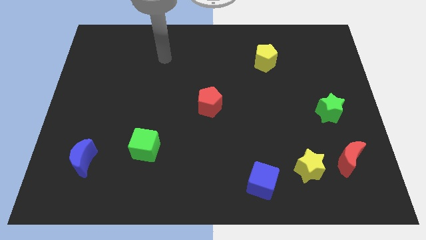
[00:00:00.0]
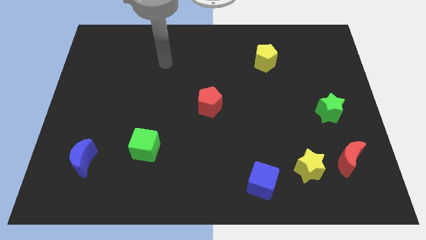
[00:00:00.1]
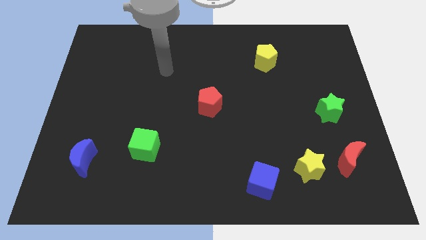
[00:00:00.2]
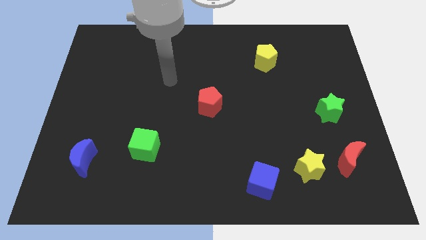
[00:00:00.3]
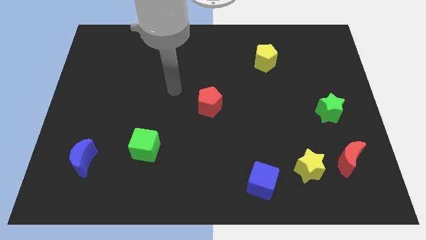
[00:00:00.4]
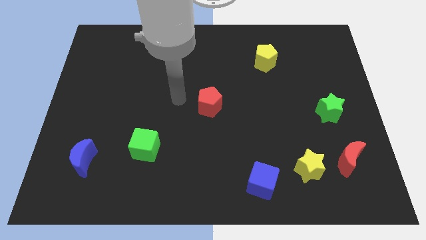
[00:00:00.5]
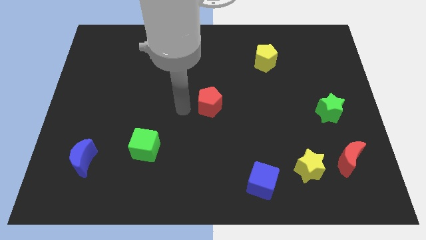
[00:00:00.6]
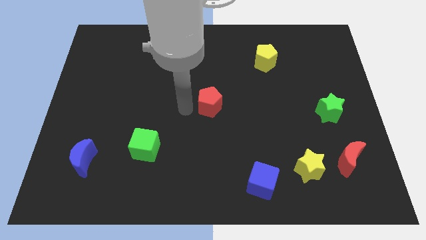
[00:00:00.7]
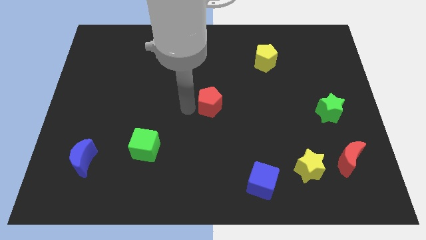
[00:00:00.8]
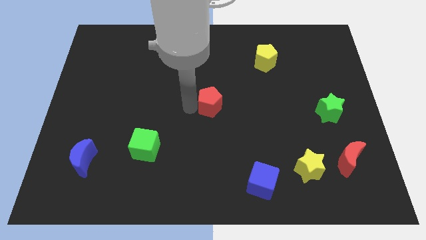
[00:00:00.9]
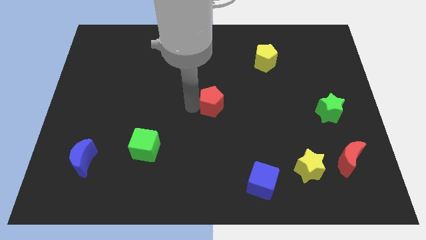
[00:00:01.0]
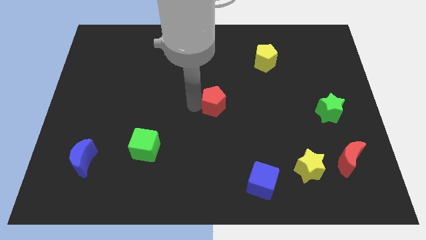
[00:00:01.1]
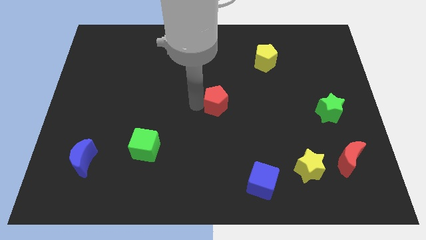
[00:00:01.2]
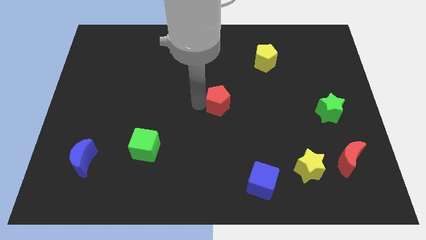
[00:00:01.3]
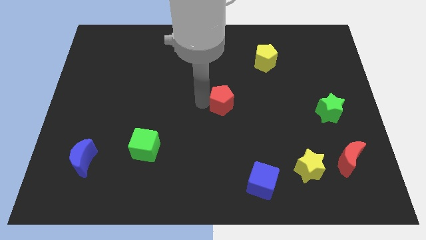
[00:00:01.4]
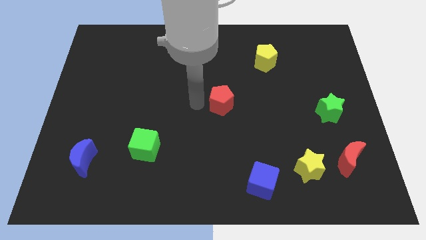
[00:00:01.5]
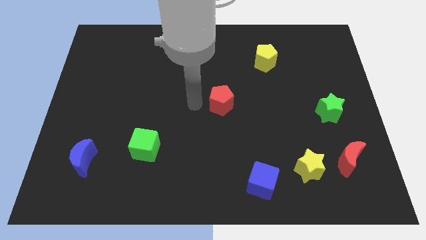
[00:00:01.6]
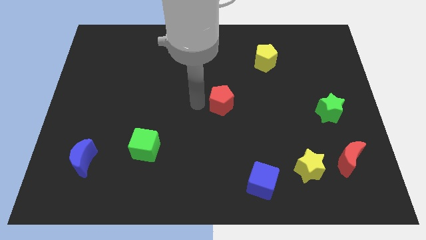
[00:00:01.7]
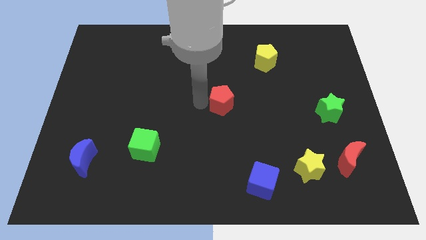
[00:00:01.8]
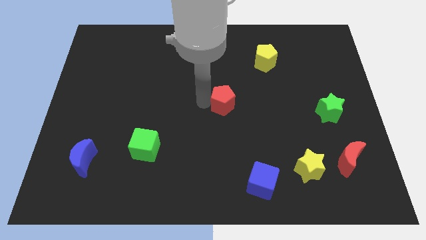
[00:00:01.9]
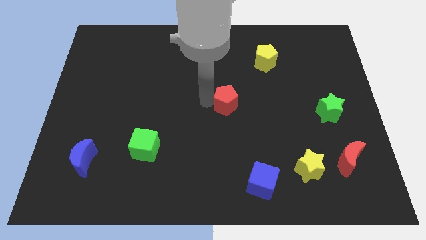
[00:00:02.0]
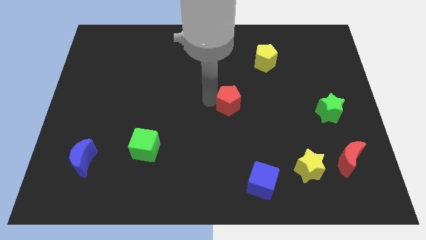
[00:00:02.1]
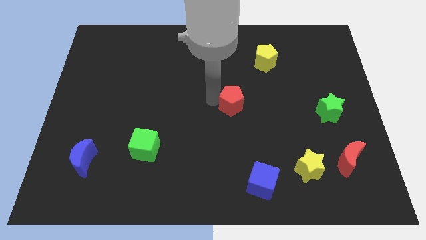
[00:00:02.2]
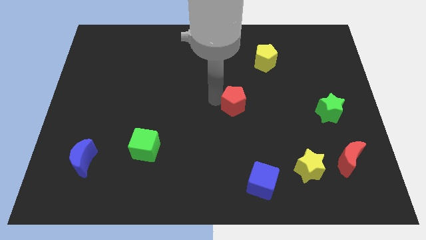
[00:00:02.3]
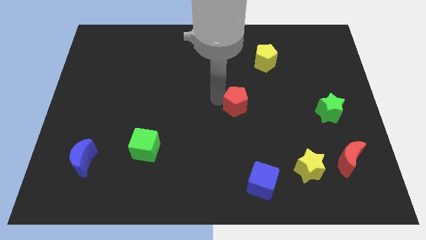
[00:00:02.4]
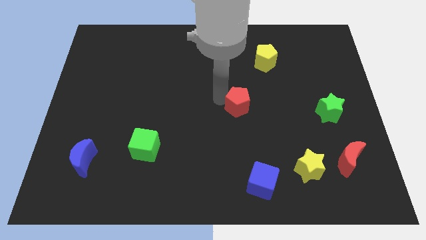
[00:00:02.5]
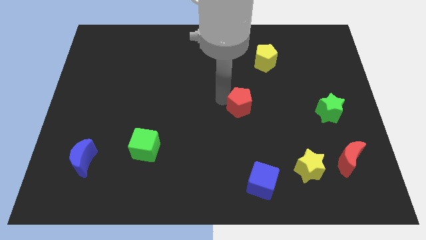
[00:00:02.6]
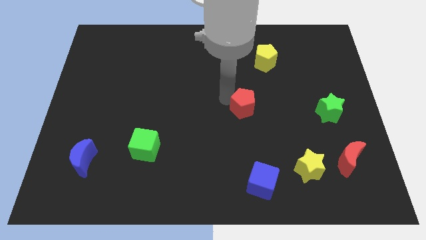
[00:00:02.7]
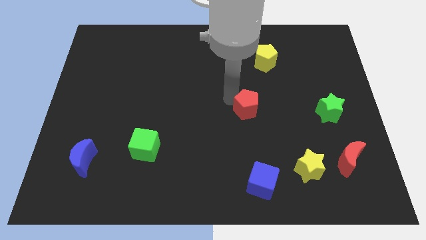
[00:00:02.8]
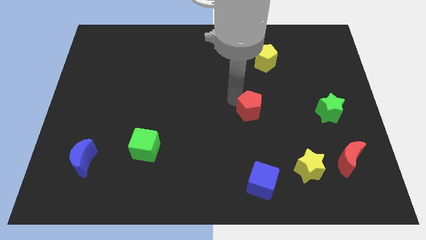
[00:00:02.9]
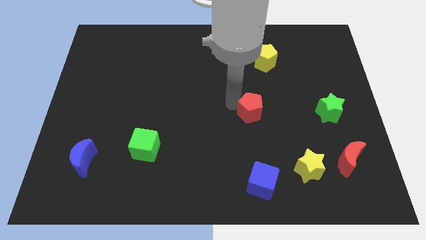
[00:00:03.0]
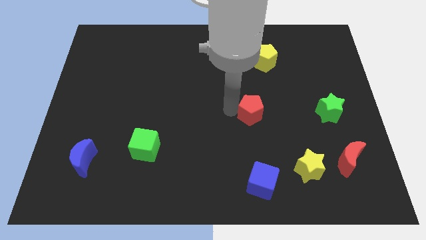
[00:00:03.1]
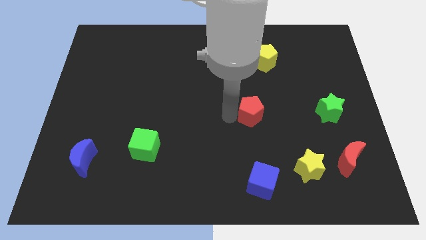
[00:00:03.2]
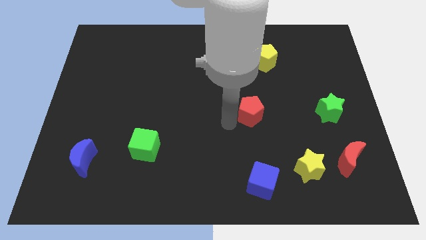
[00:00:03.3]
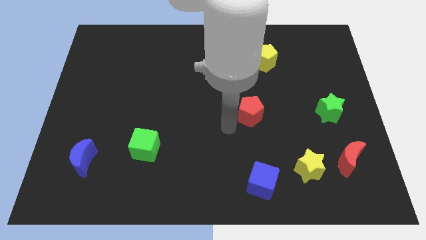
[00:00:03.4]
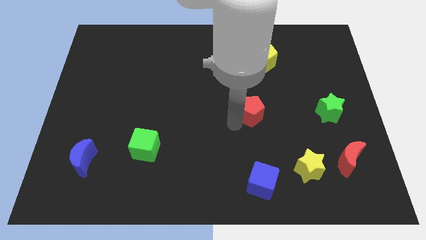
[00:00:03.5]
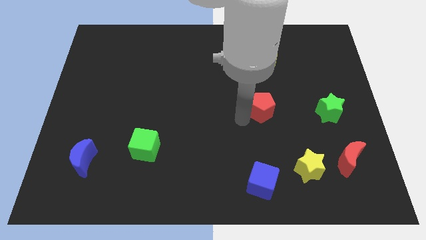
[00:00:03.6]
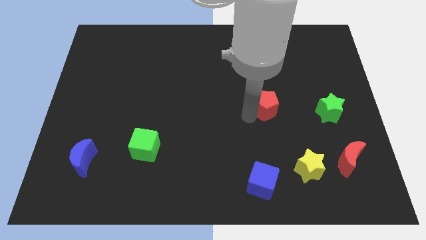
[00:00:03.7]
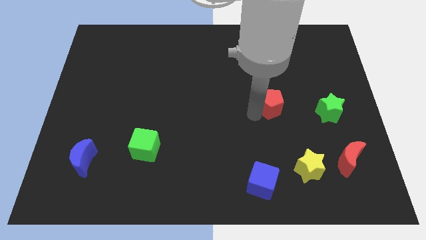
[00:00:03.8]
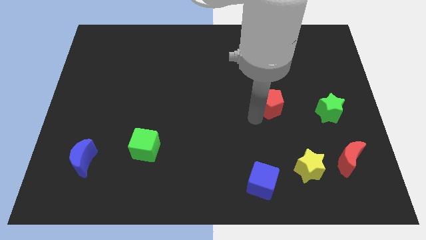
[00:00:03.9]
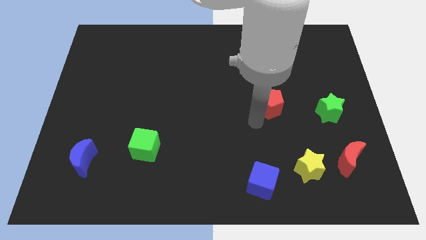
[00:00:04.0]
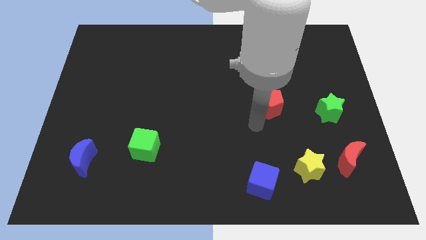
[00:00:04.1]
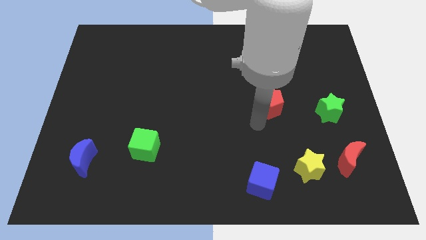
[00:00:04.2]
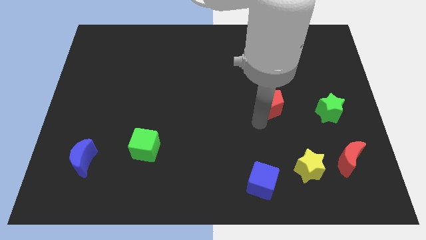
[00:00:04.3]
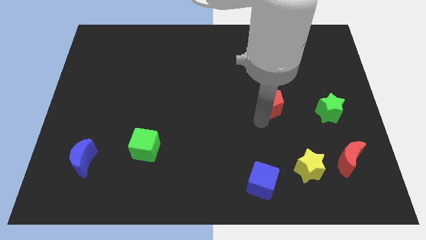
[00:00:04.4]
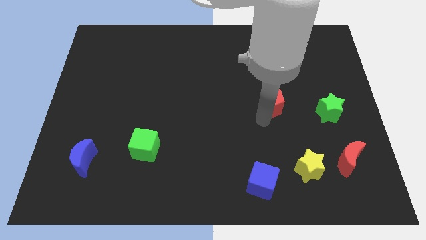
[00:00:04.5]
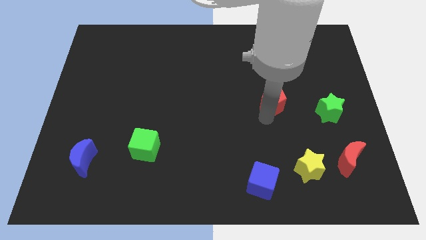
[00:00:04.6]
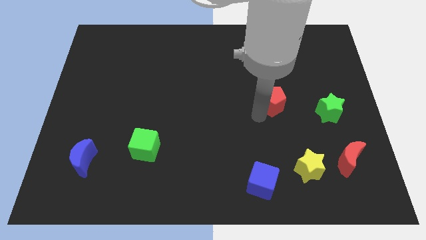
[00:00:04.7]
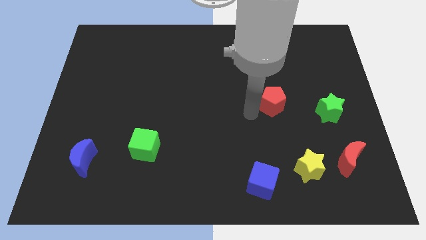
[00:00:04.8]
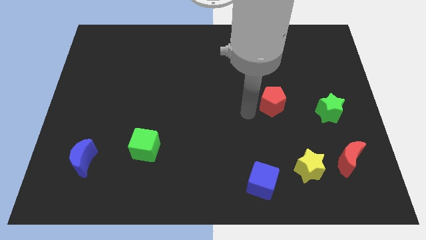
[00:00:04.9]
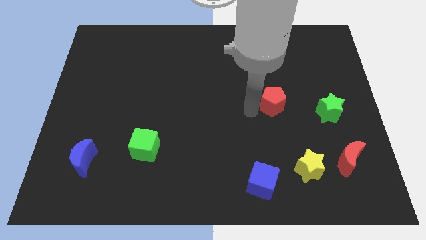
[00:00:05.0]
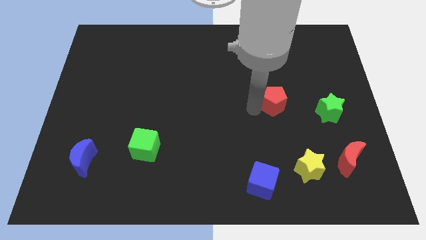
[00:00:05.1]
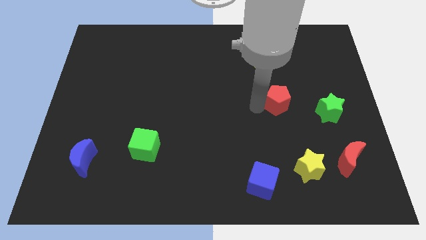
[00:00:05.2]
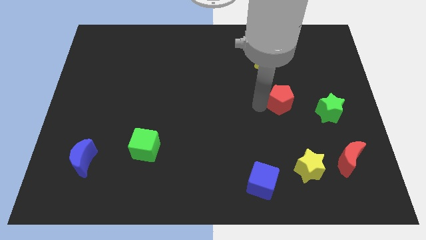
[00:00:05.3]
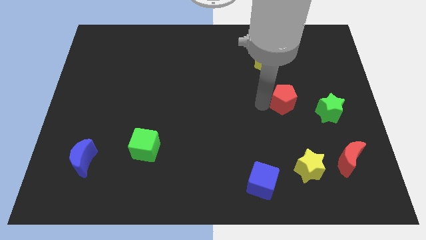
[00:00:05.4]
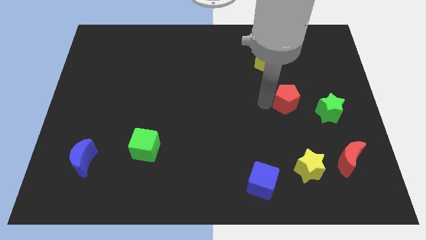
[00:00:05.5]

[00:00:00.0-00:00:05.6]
push the red pentagon diagonally up and to the left of the green star

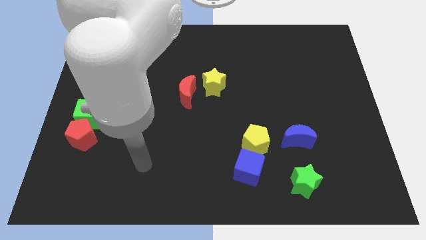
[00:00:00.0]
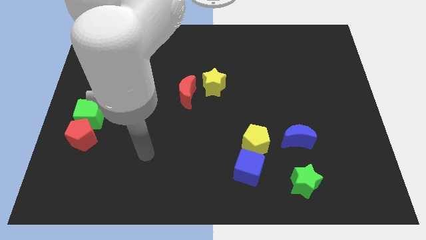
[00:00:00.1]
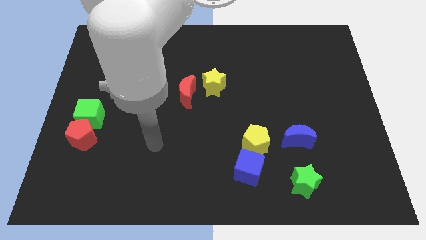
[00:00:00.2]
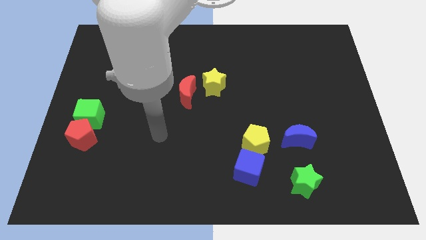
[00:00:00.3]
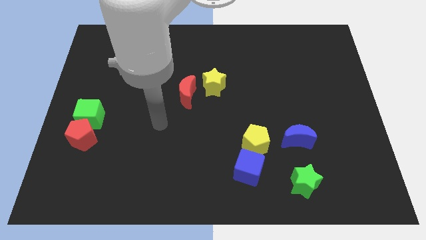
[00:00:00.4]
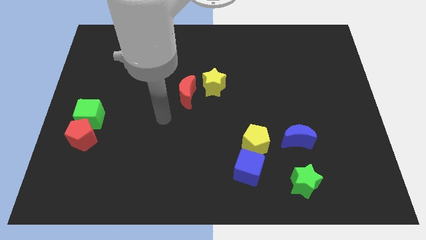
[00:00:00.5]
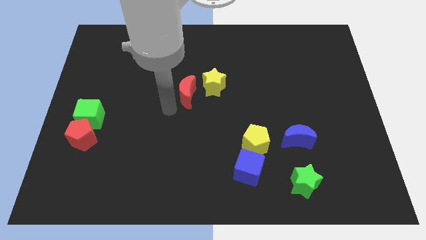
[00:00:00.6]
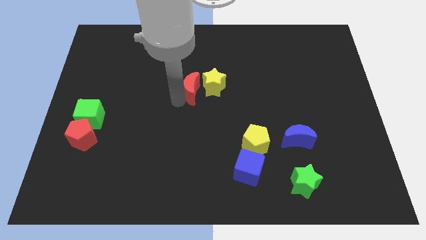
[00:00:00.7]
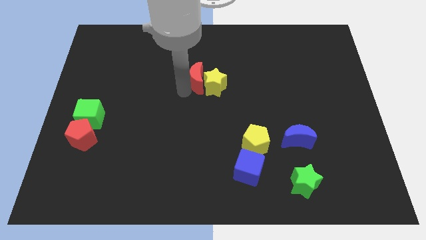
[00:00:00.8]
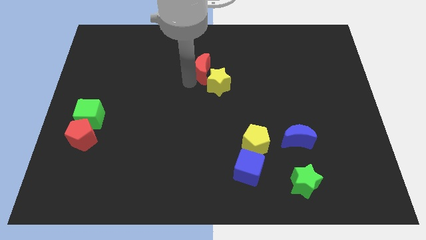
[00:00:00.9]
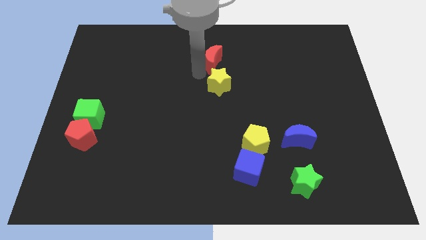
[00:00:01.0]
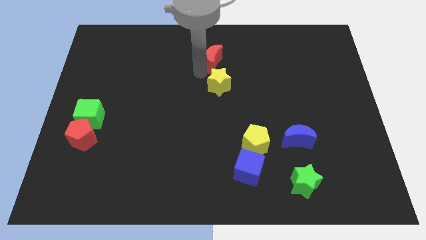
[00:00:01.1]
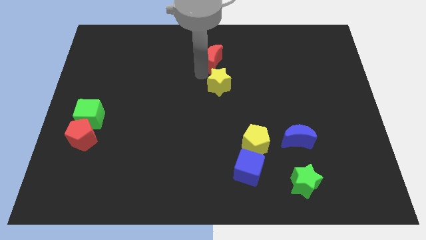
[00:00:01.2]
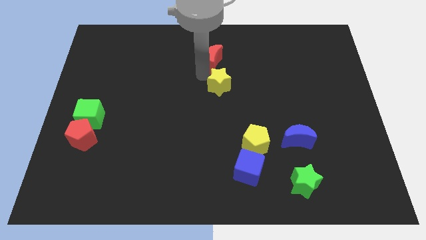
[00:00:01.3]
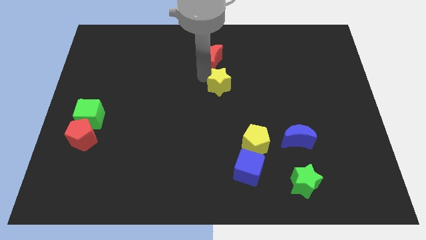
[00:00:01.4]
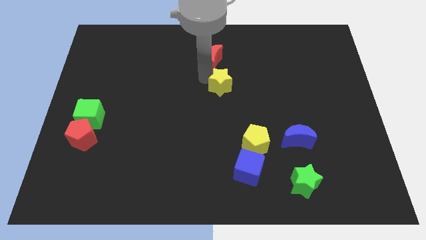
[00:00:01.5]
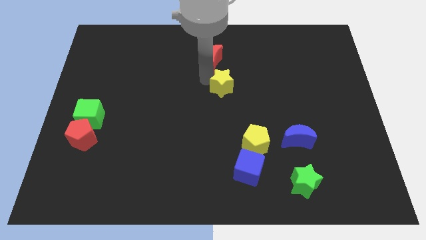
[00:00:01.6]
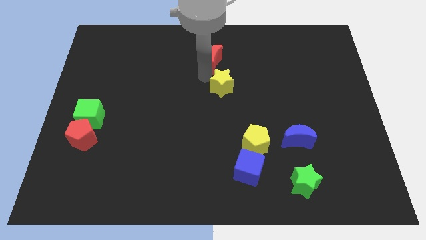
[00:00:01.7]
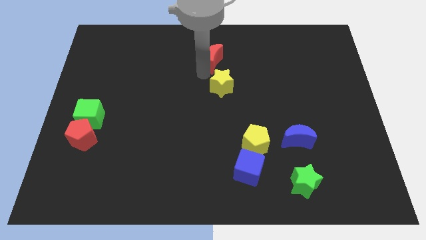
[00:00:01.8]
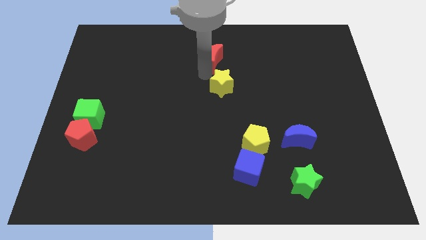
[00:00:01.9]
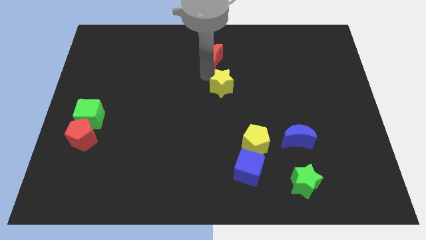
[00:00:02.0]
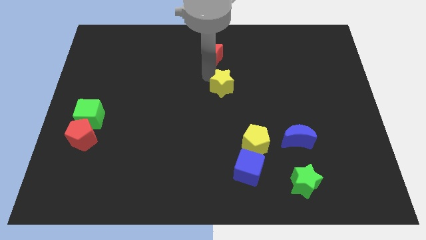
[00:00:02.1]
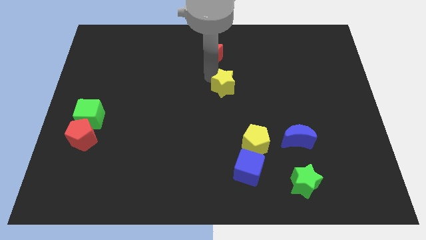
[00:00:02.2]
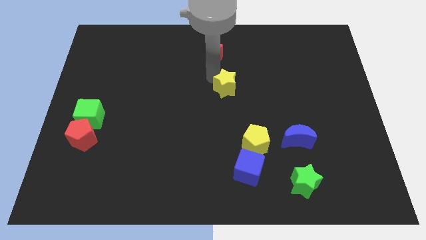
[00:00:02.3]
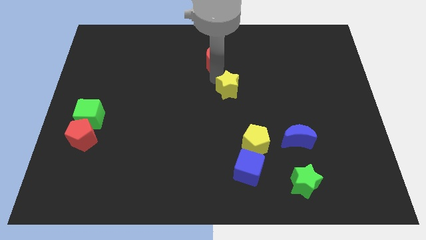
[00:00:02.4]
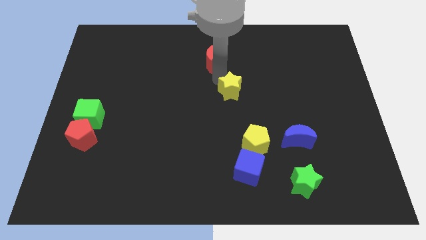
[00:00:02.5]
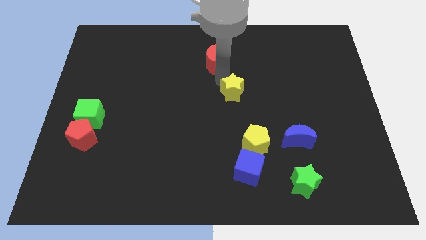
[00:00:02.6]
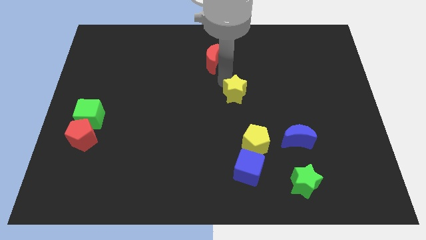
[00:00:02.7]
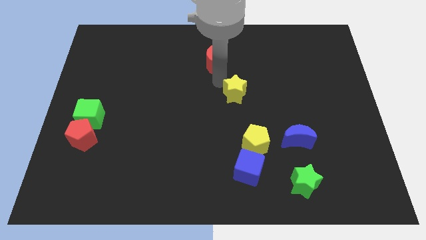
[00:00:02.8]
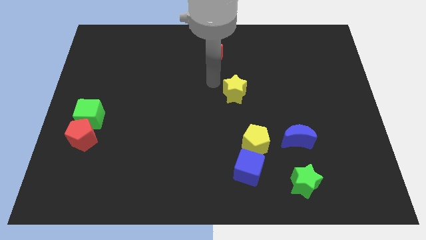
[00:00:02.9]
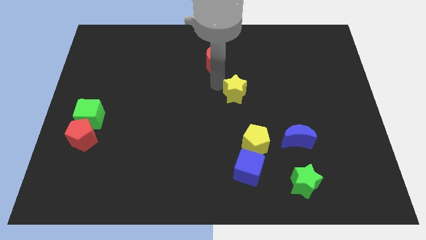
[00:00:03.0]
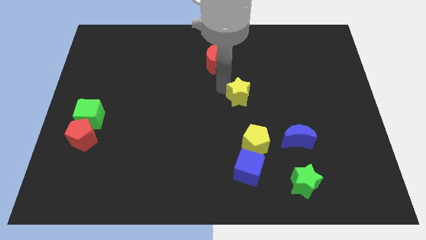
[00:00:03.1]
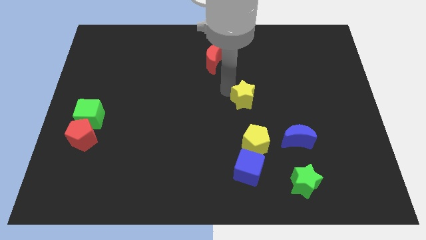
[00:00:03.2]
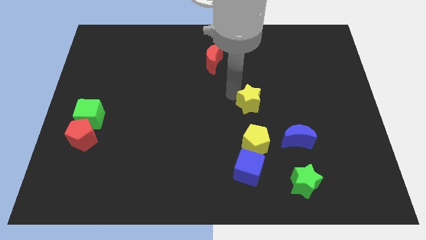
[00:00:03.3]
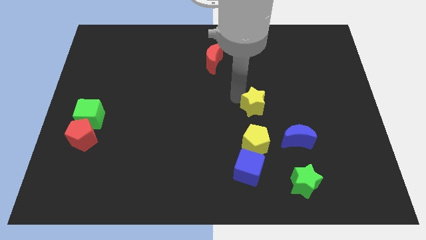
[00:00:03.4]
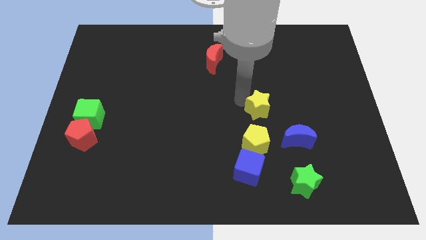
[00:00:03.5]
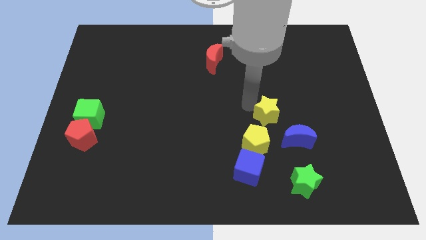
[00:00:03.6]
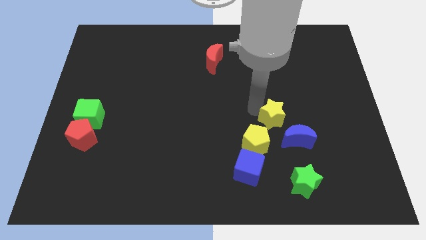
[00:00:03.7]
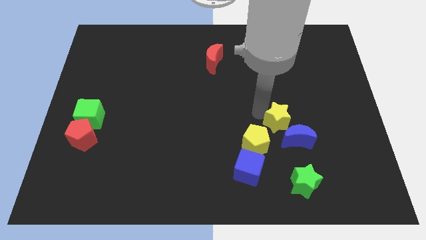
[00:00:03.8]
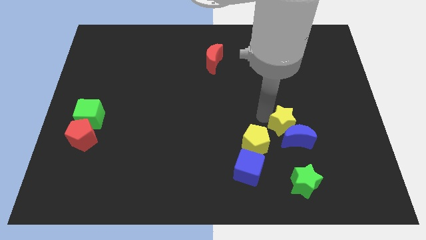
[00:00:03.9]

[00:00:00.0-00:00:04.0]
slide the yellow star above the green star
